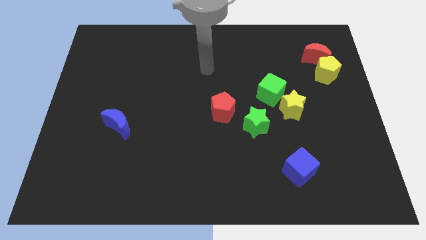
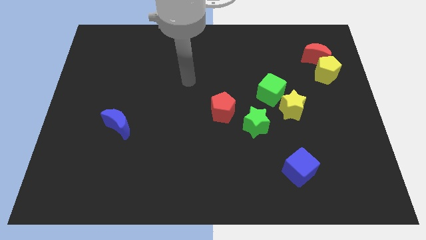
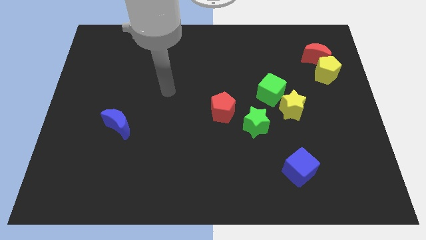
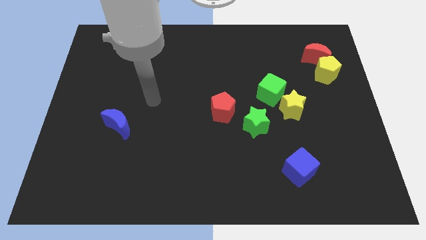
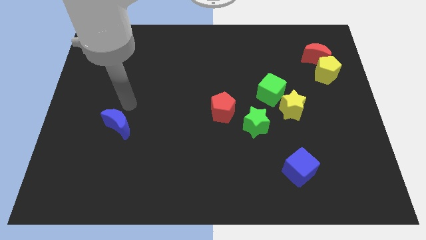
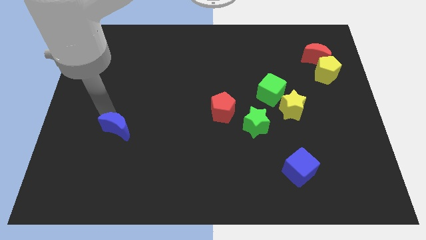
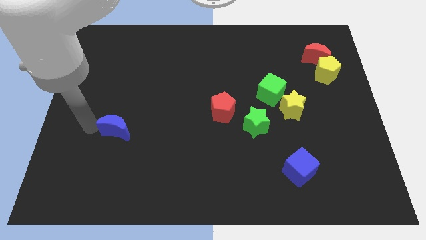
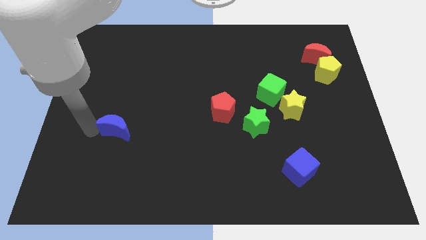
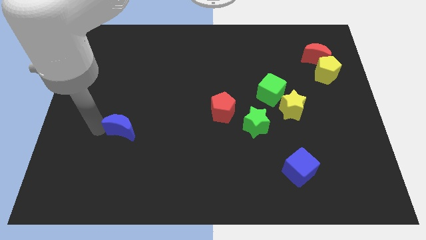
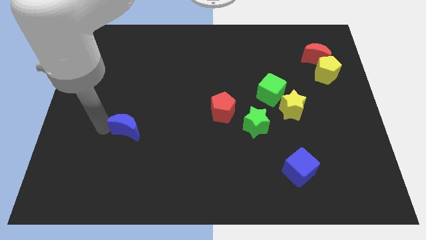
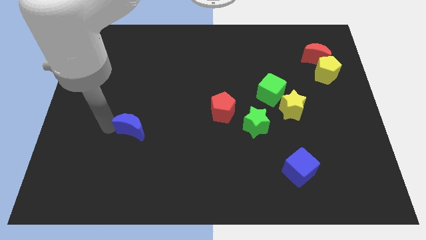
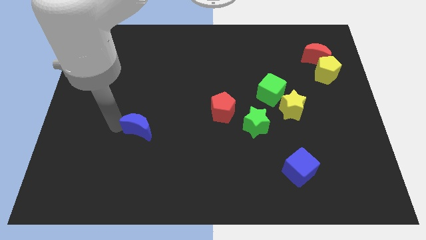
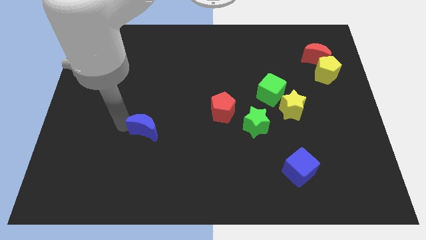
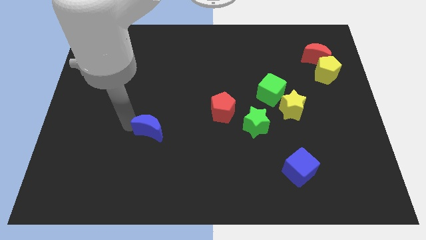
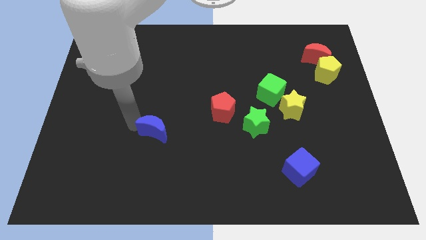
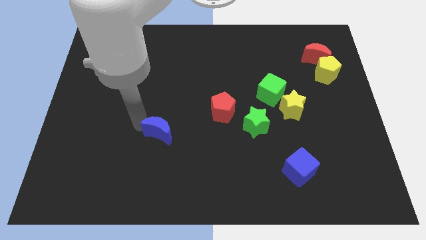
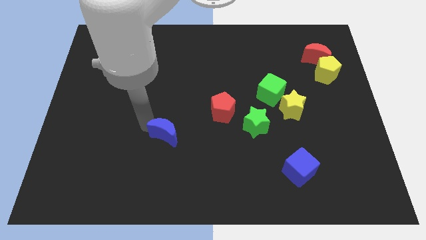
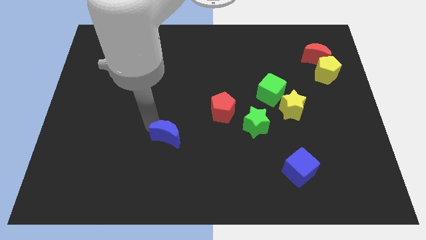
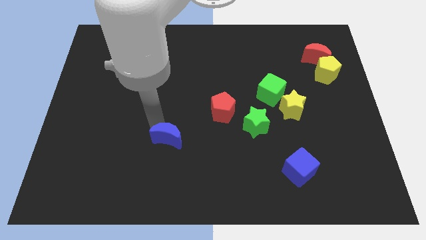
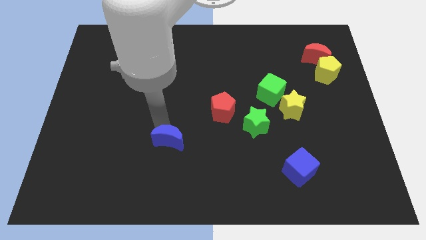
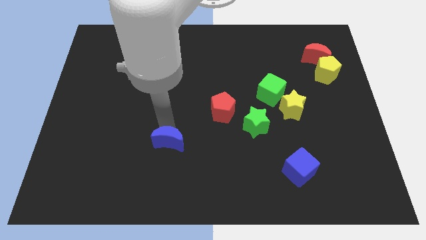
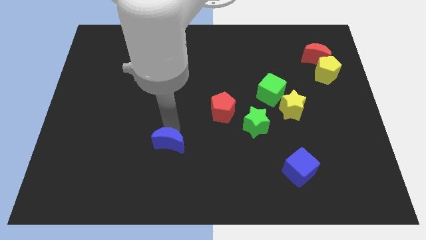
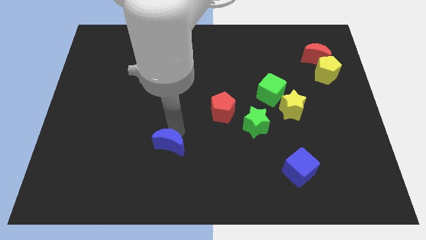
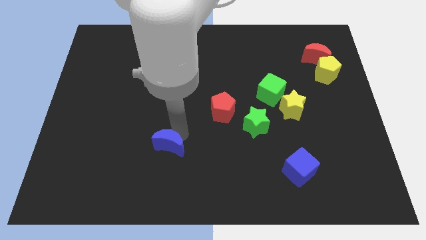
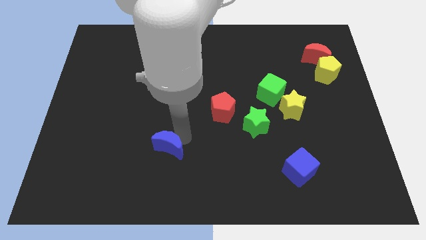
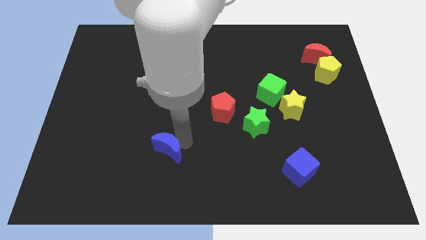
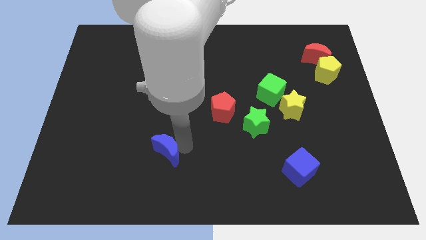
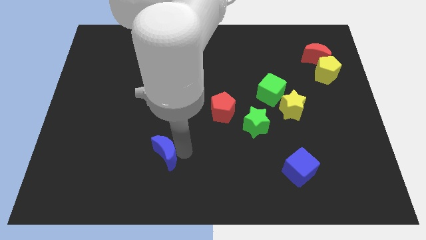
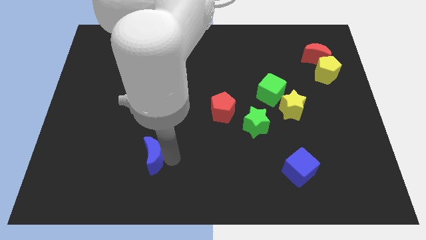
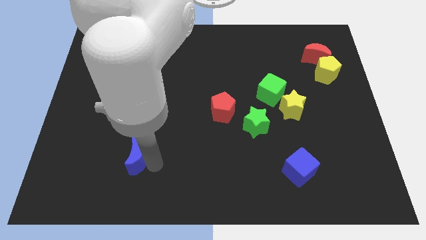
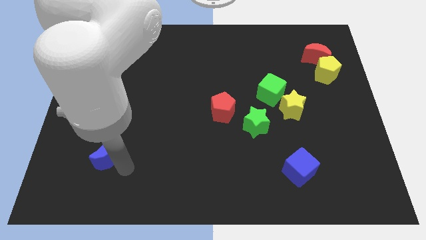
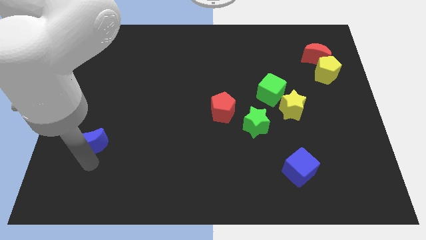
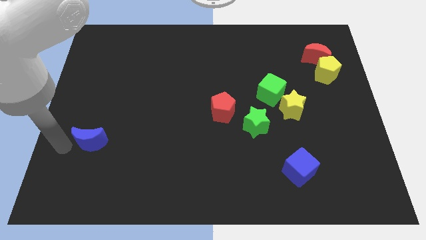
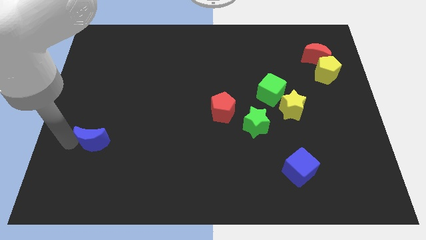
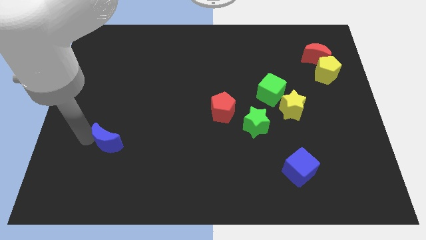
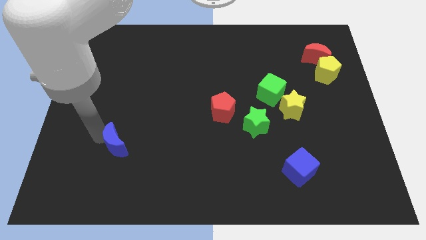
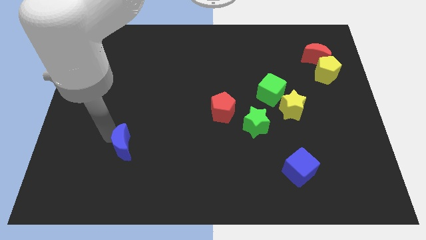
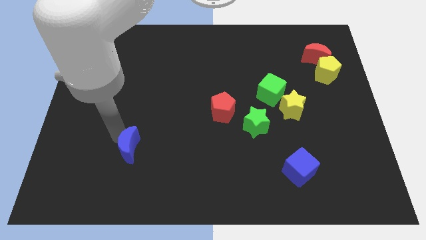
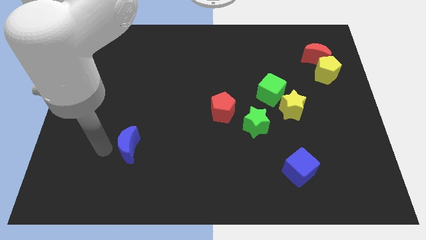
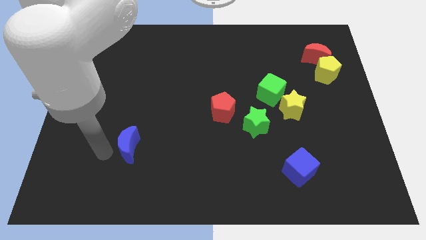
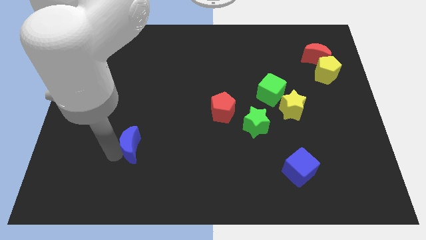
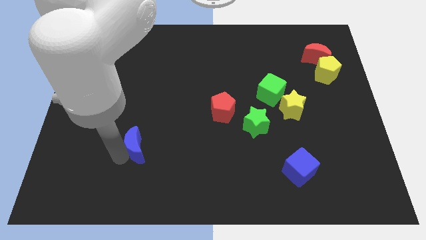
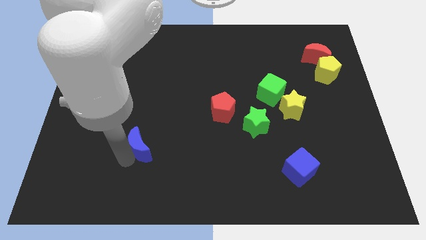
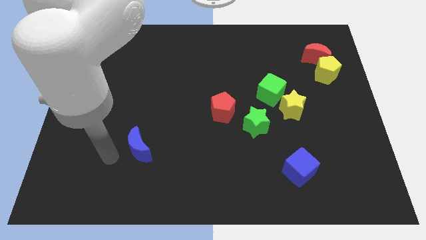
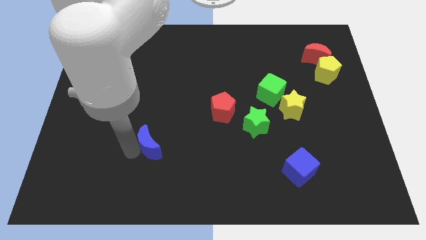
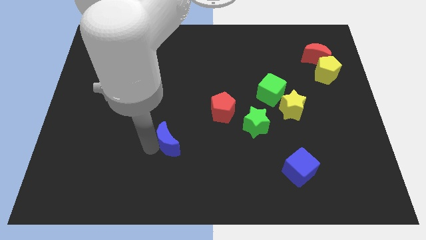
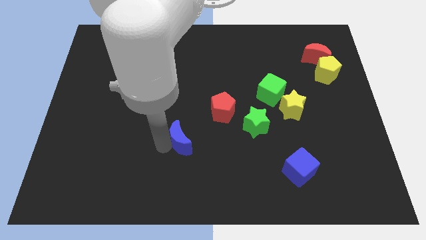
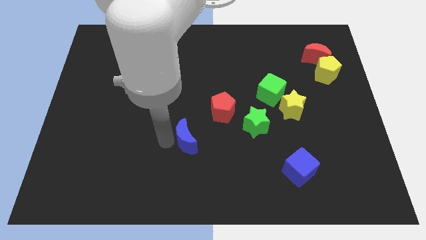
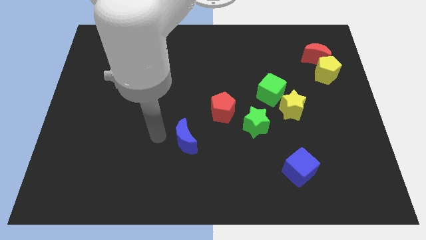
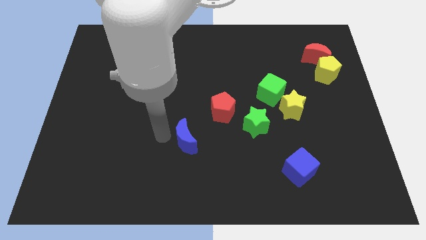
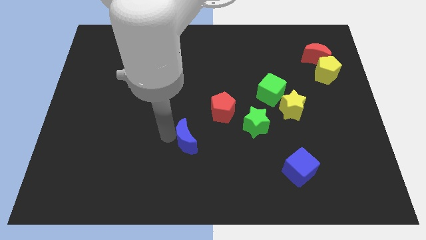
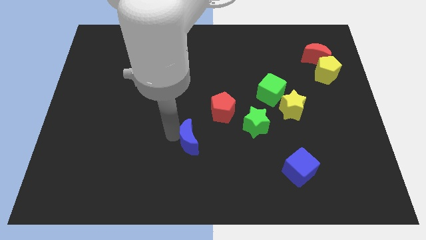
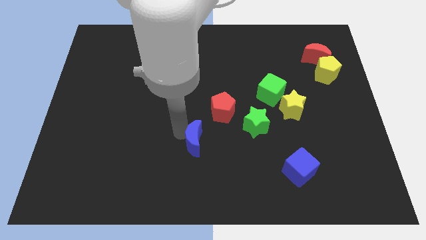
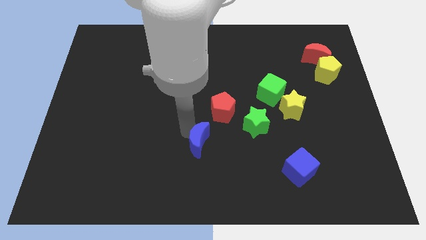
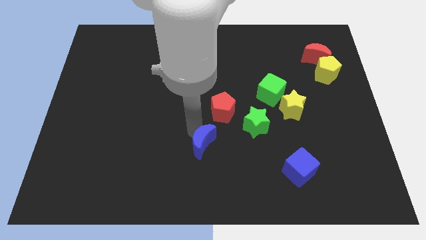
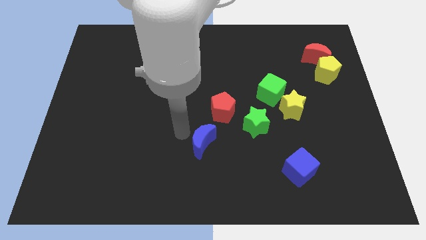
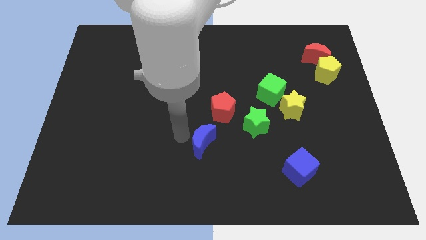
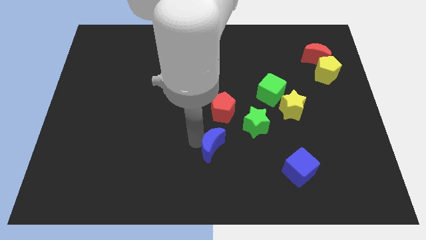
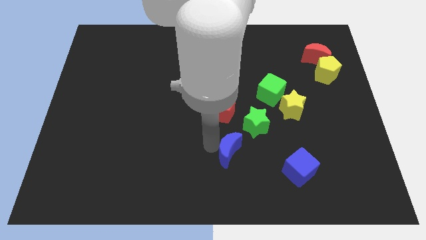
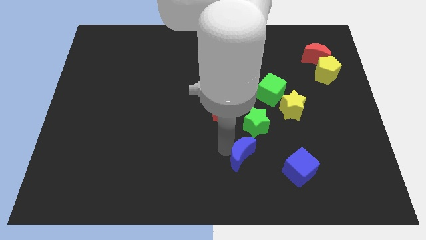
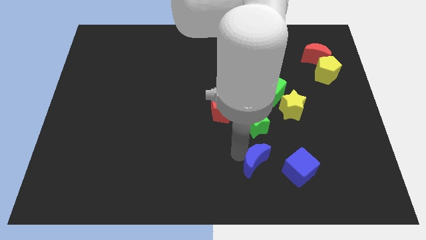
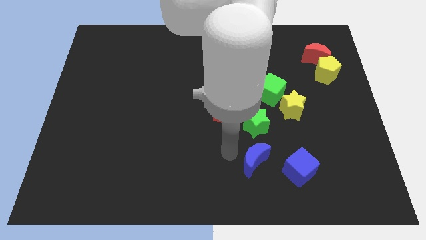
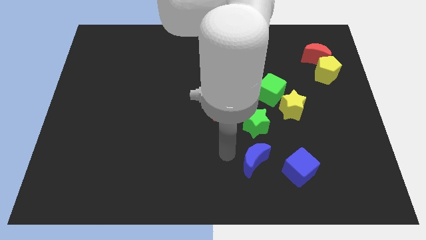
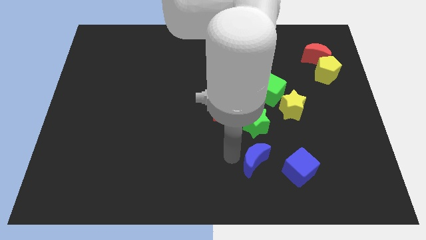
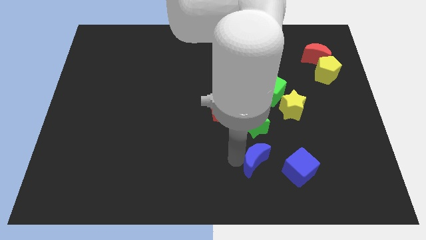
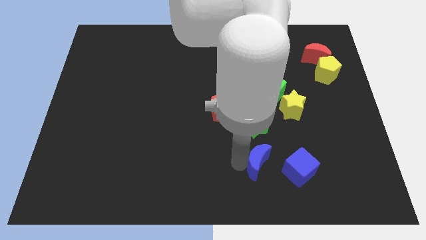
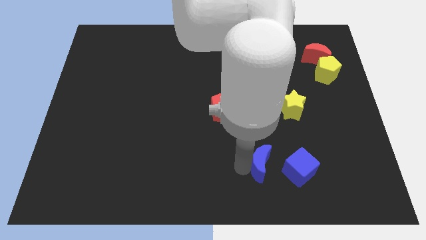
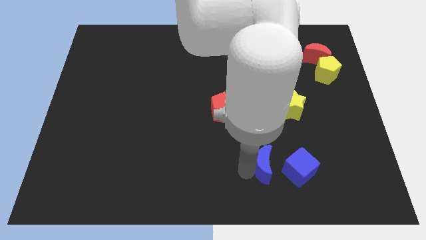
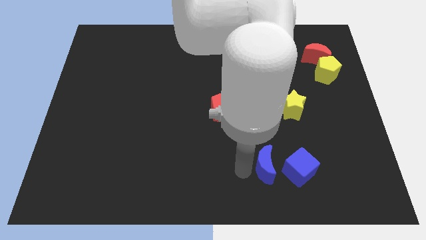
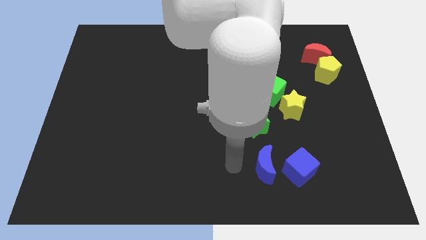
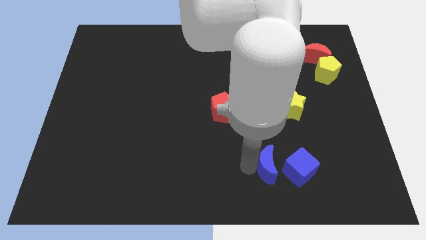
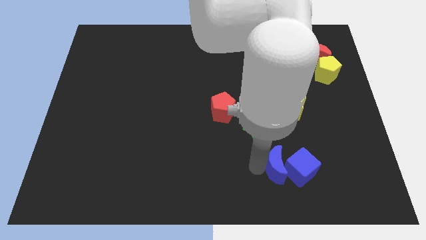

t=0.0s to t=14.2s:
put the blue moon close to the blue cube
